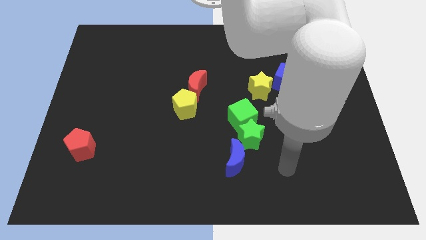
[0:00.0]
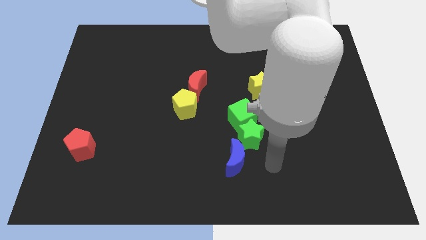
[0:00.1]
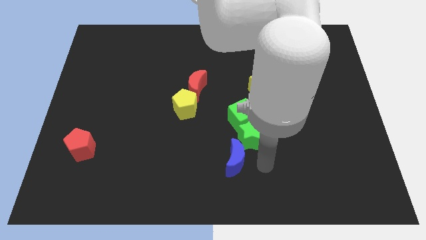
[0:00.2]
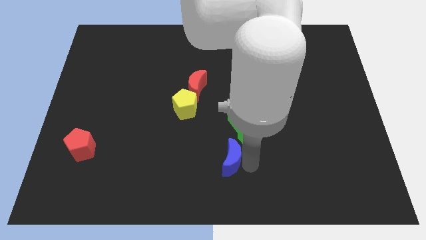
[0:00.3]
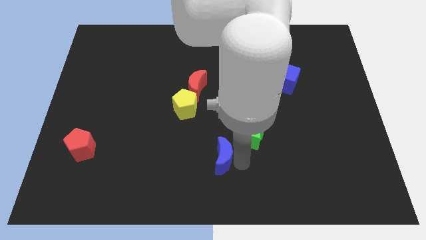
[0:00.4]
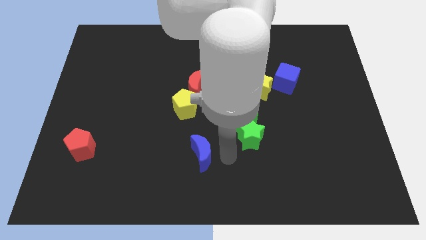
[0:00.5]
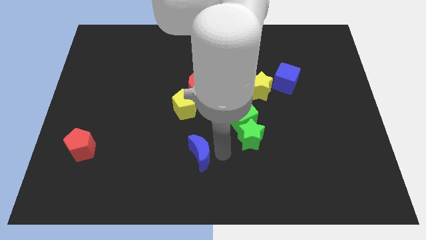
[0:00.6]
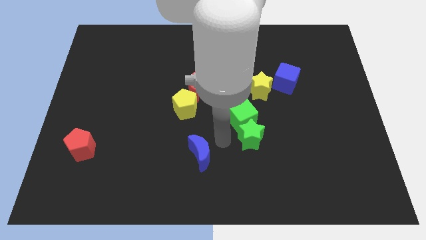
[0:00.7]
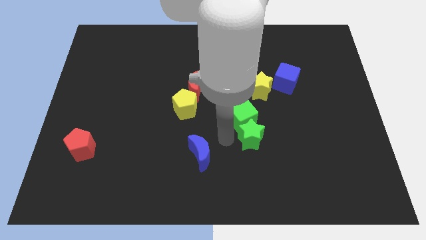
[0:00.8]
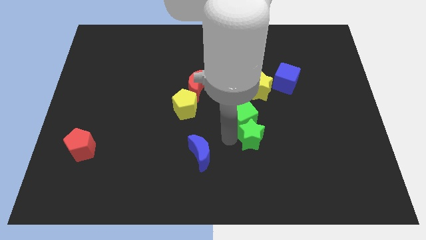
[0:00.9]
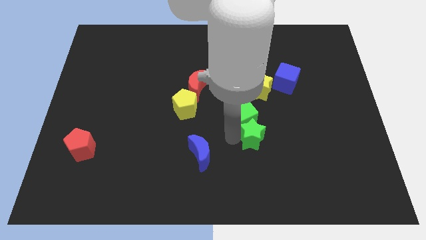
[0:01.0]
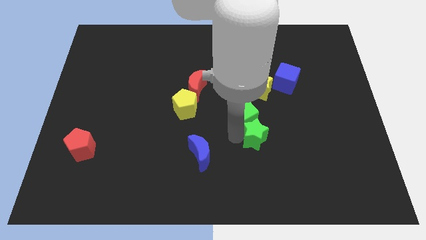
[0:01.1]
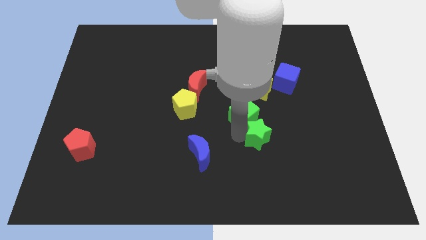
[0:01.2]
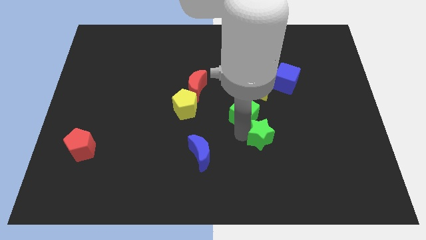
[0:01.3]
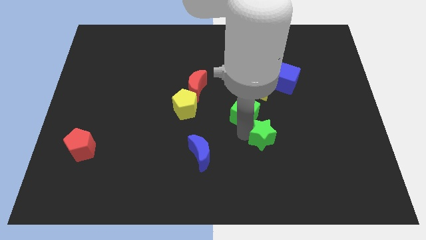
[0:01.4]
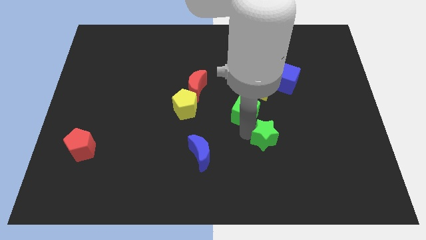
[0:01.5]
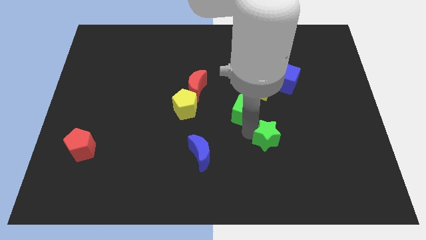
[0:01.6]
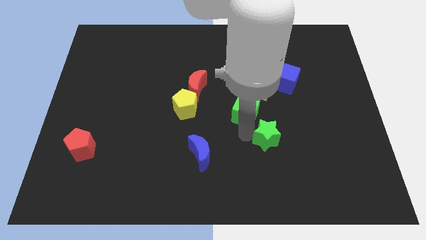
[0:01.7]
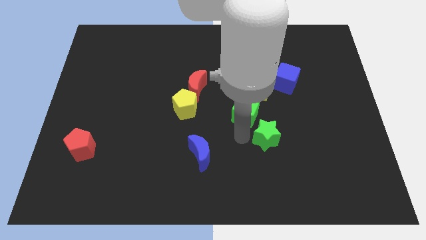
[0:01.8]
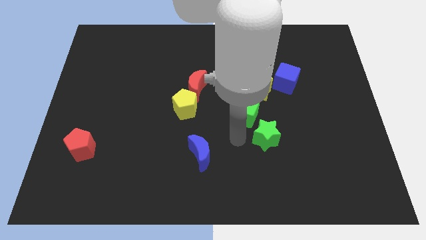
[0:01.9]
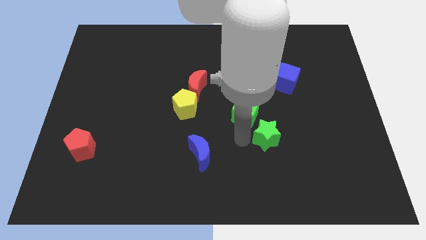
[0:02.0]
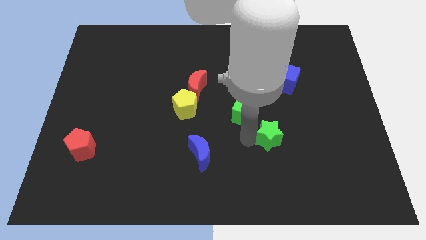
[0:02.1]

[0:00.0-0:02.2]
pull the green star apart from the green cube and blue moon

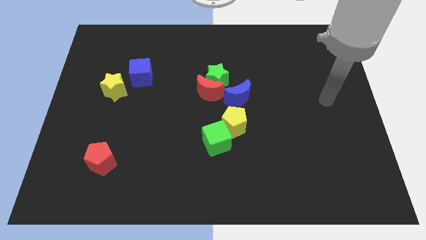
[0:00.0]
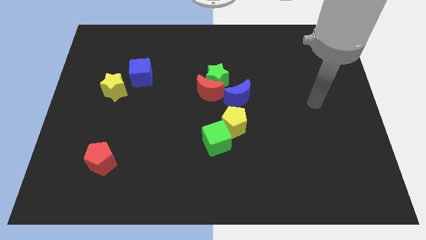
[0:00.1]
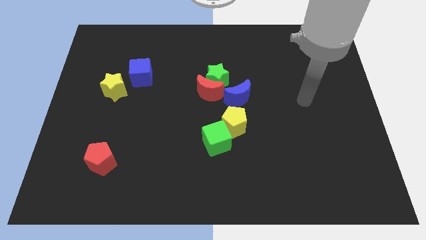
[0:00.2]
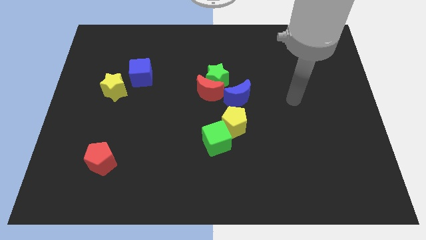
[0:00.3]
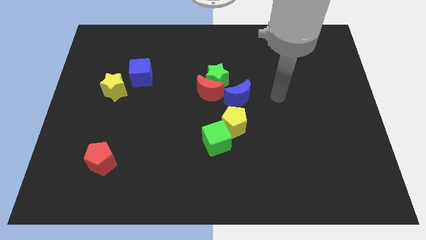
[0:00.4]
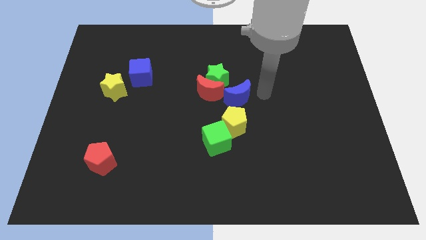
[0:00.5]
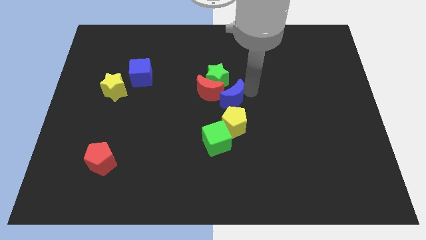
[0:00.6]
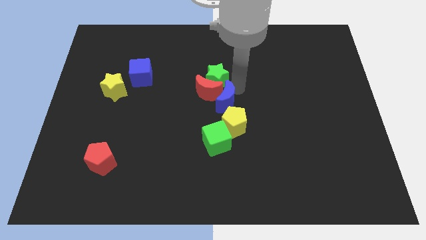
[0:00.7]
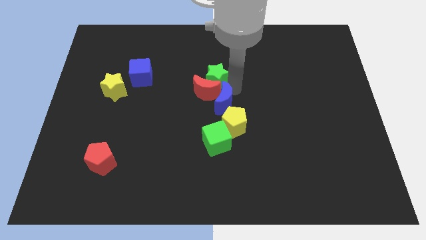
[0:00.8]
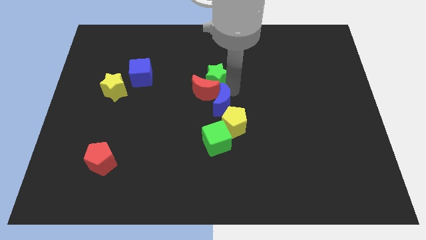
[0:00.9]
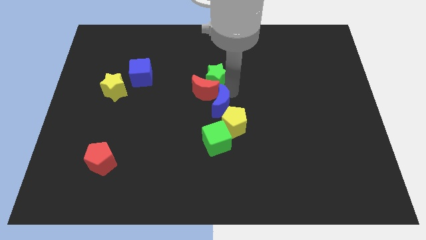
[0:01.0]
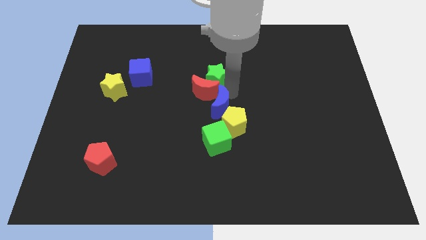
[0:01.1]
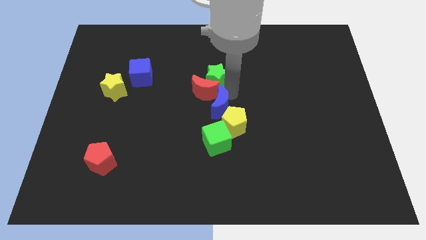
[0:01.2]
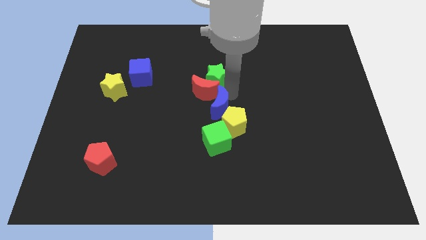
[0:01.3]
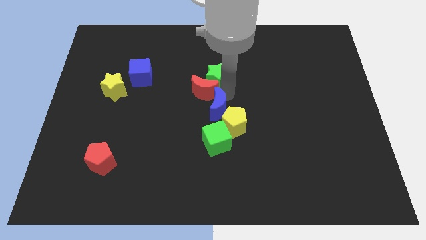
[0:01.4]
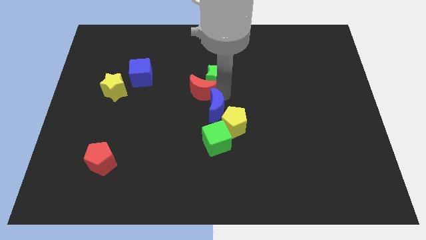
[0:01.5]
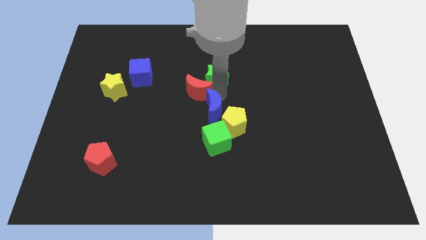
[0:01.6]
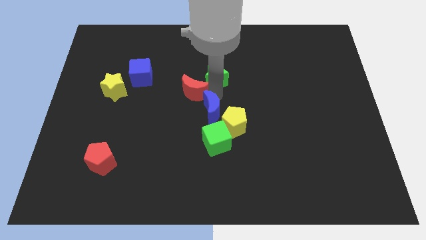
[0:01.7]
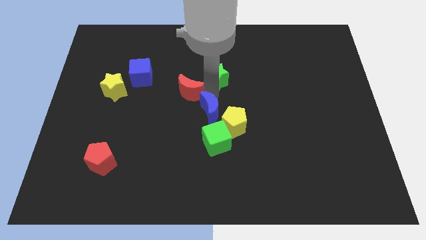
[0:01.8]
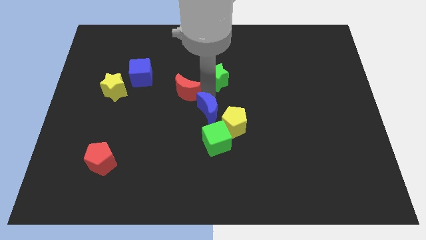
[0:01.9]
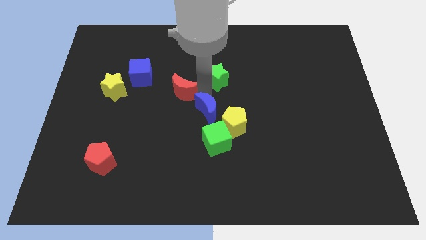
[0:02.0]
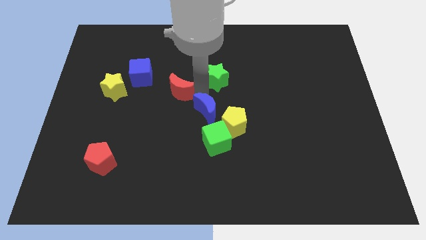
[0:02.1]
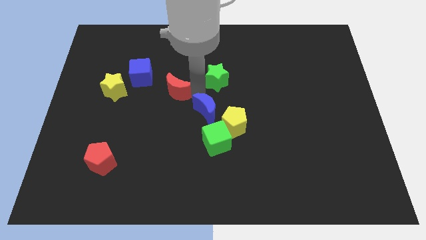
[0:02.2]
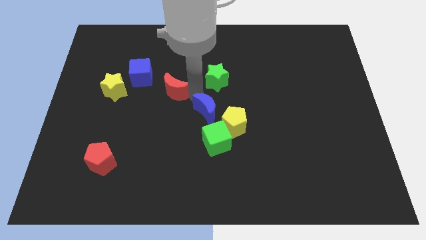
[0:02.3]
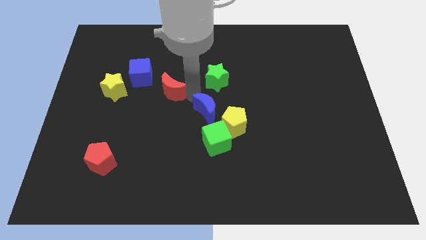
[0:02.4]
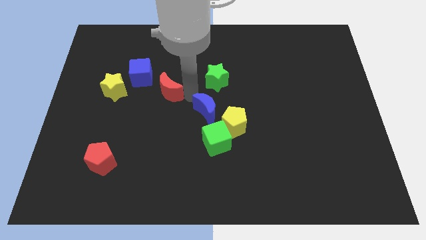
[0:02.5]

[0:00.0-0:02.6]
separate the red moon from the green star and blue moon

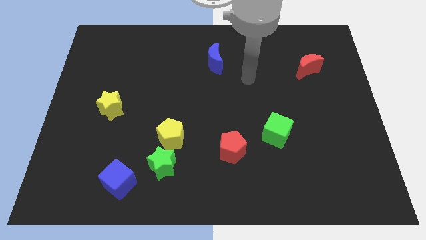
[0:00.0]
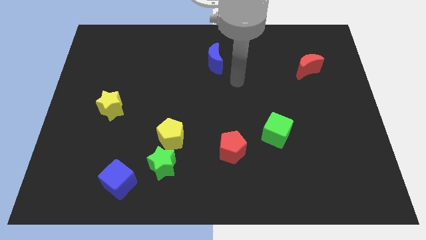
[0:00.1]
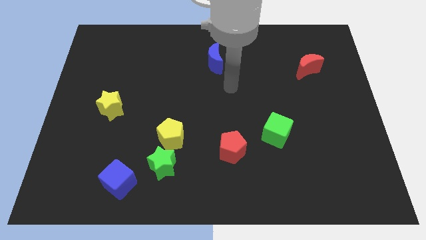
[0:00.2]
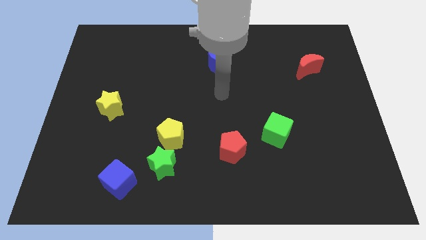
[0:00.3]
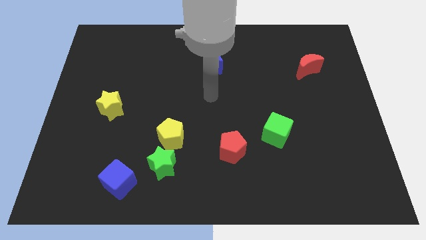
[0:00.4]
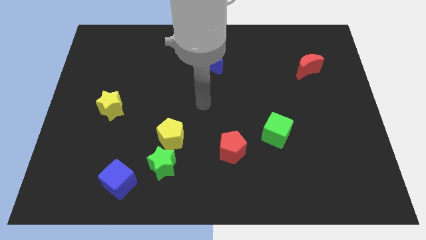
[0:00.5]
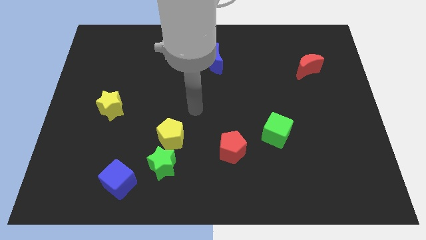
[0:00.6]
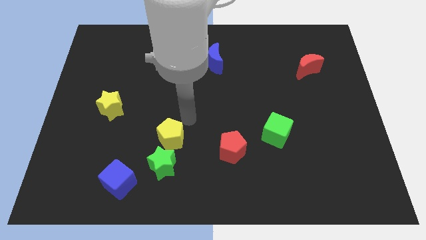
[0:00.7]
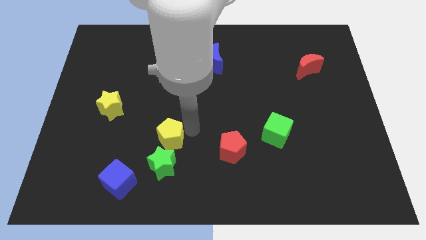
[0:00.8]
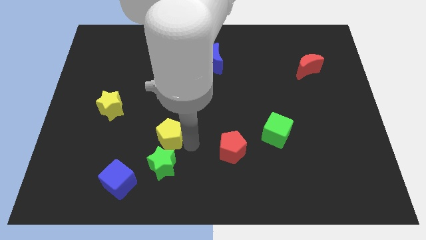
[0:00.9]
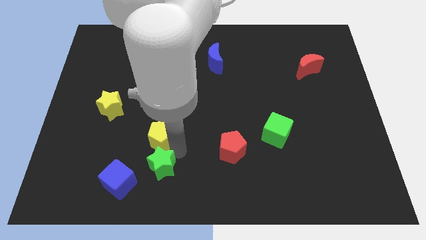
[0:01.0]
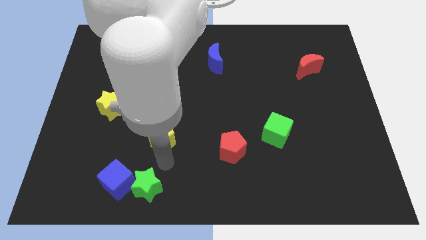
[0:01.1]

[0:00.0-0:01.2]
pull the yellow pentagon apart from the green star

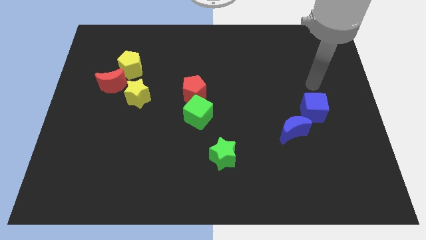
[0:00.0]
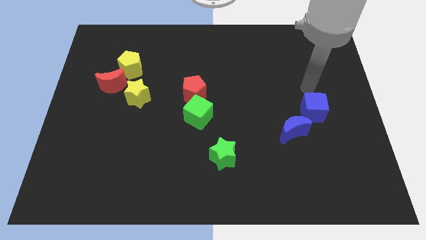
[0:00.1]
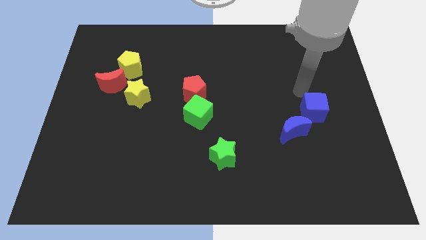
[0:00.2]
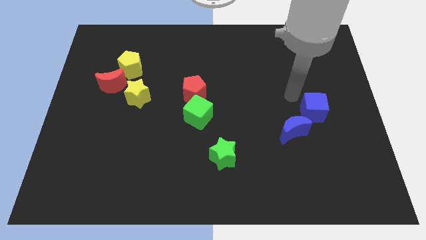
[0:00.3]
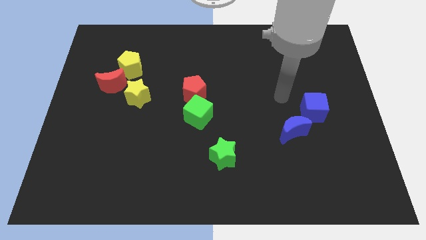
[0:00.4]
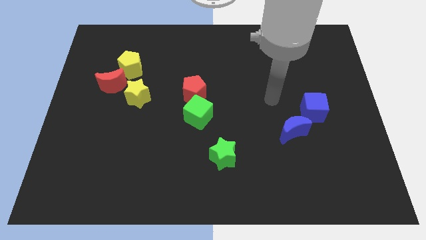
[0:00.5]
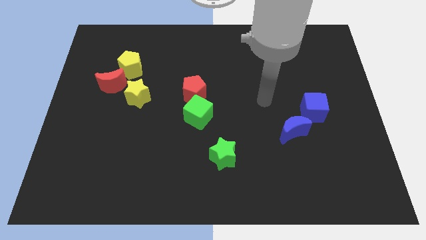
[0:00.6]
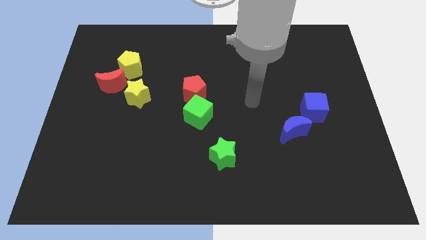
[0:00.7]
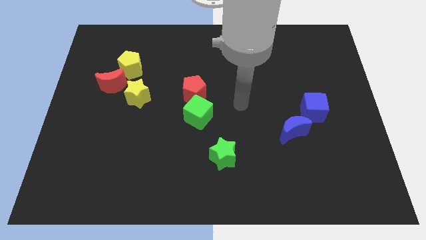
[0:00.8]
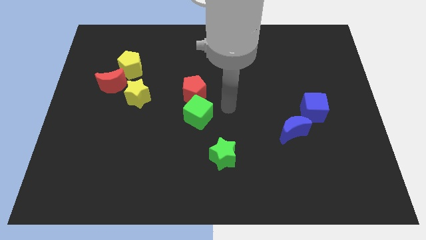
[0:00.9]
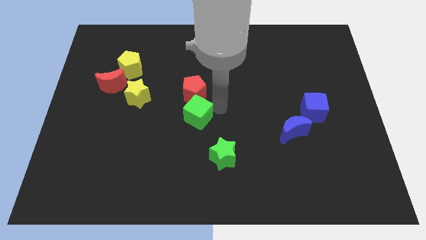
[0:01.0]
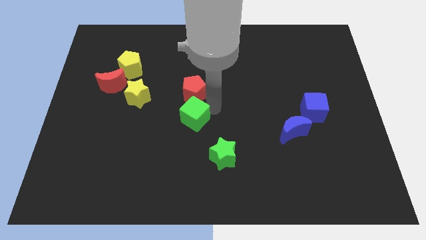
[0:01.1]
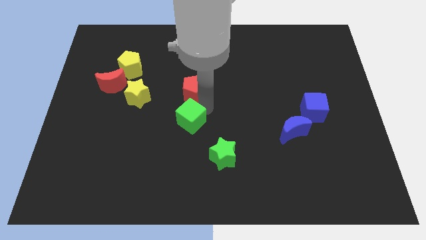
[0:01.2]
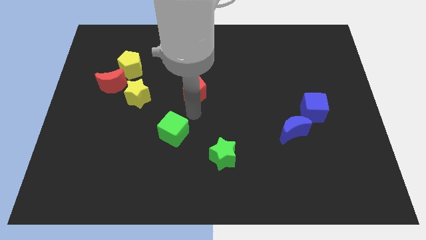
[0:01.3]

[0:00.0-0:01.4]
separate the red pentagon from the green cube

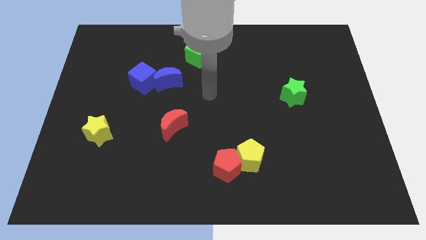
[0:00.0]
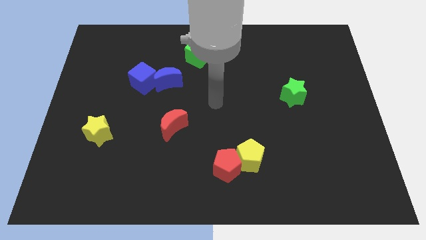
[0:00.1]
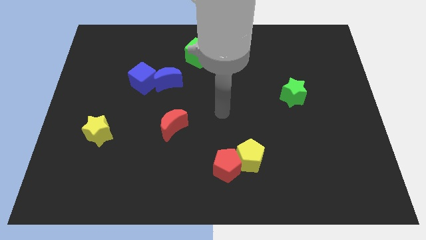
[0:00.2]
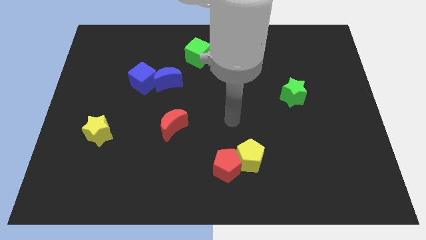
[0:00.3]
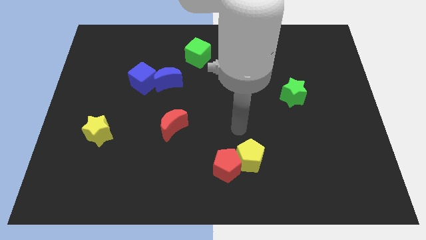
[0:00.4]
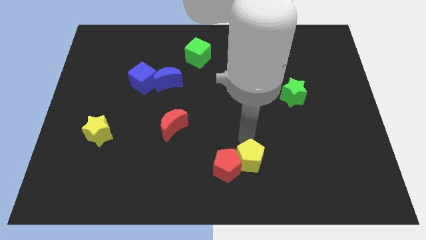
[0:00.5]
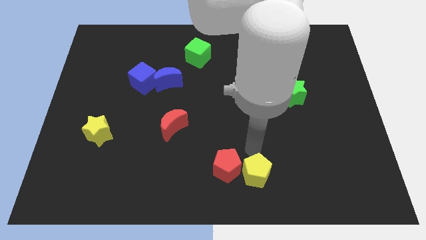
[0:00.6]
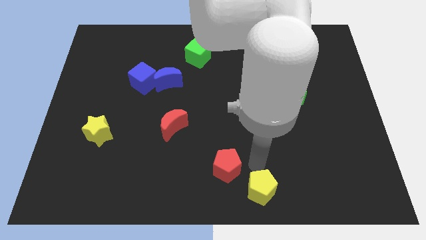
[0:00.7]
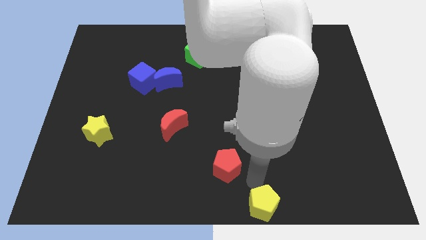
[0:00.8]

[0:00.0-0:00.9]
pull the red pentagon apart from the yellow pentagon

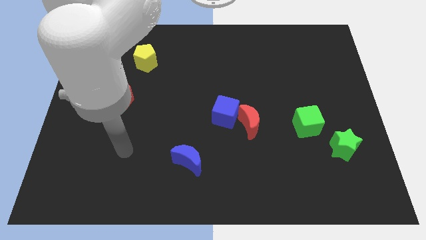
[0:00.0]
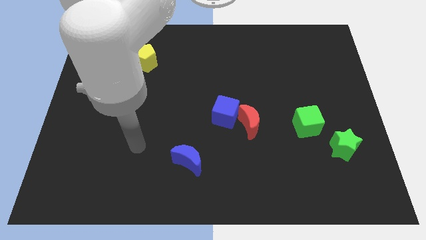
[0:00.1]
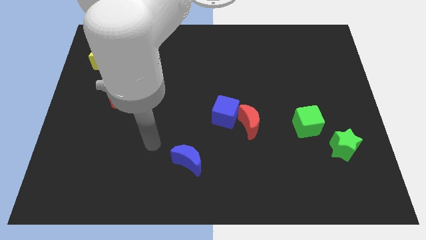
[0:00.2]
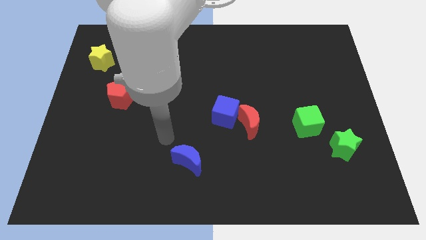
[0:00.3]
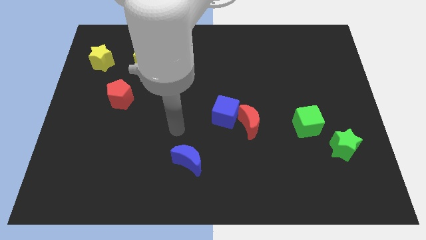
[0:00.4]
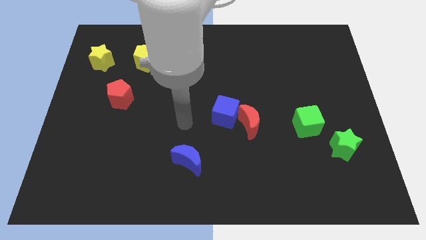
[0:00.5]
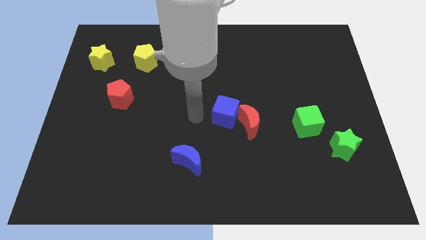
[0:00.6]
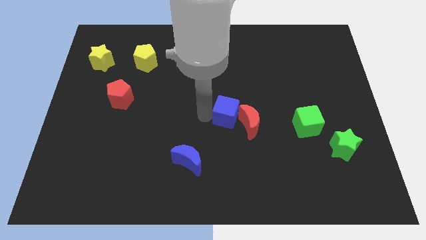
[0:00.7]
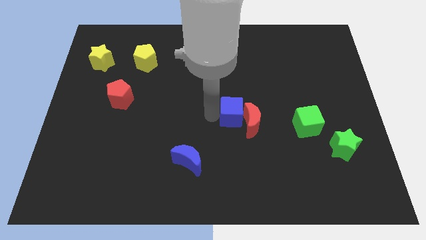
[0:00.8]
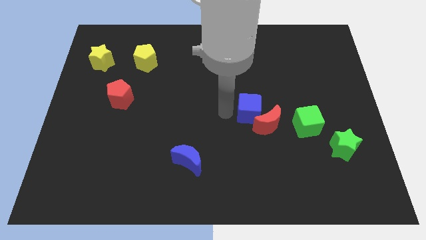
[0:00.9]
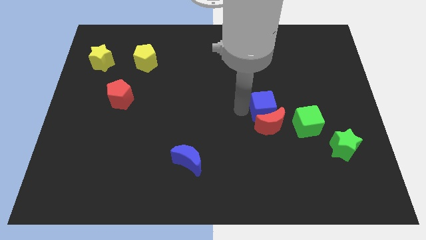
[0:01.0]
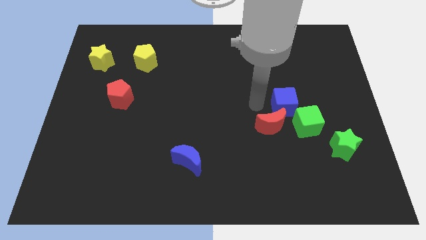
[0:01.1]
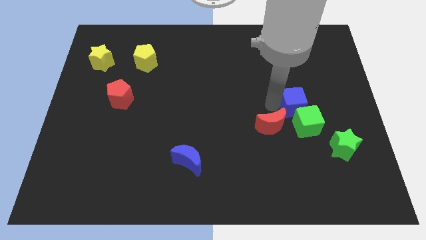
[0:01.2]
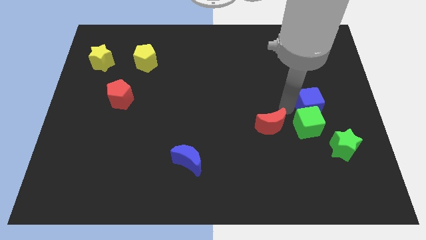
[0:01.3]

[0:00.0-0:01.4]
pull the red moon apart from the blue cube
